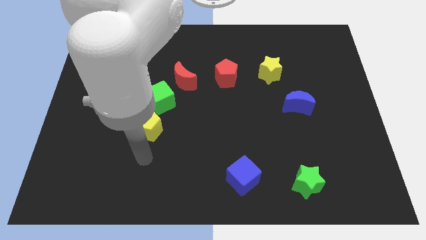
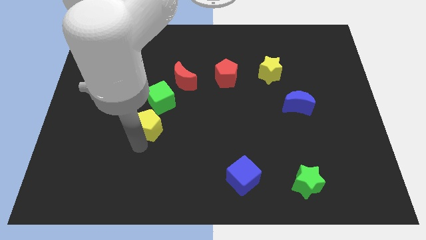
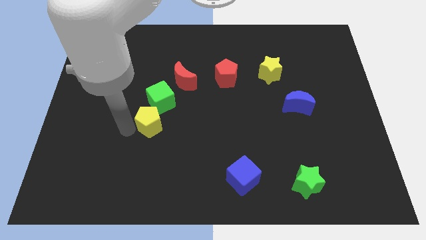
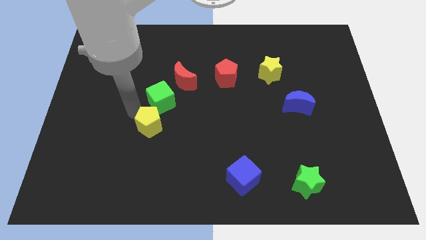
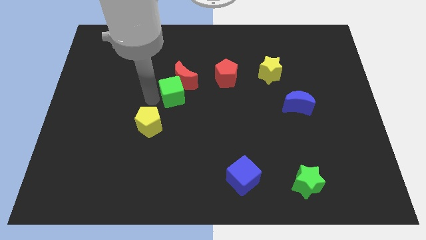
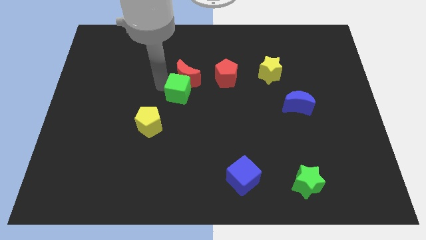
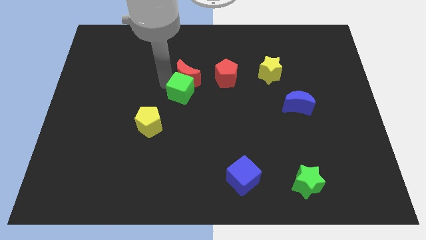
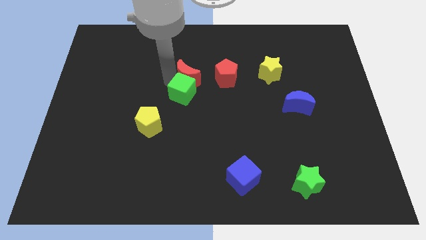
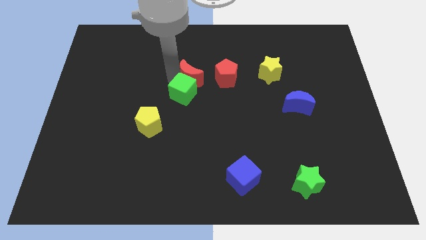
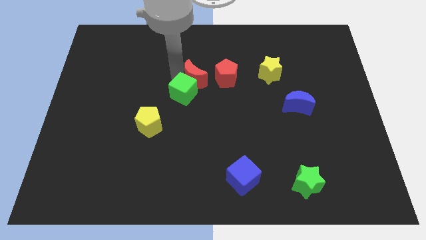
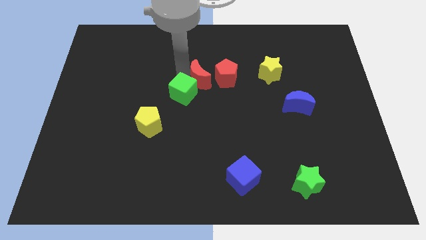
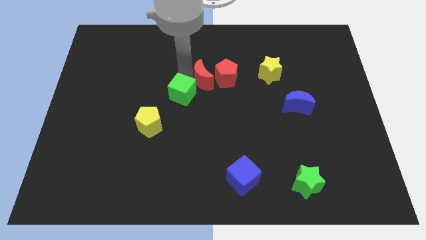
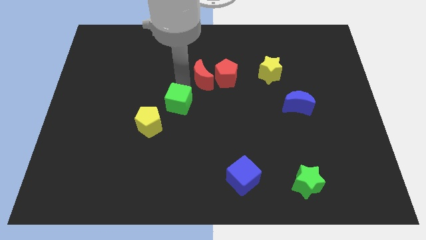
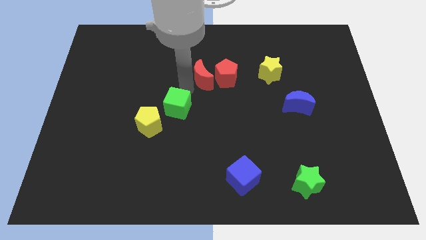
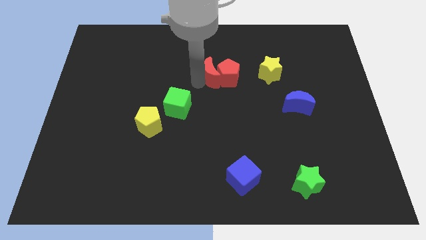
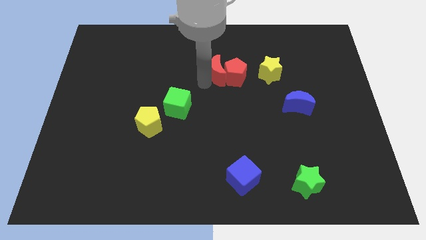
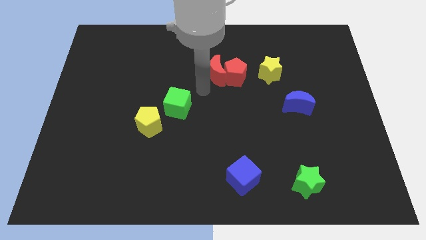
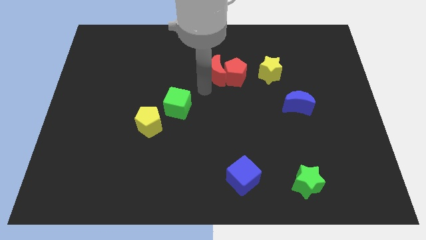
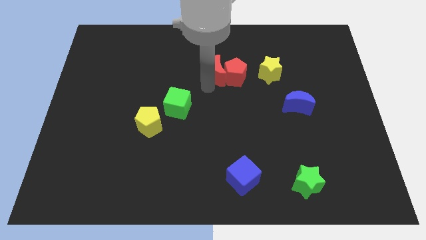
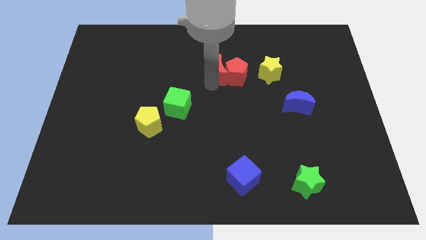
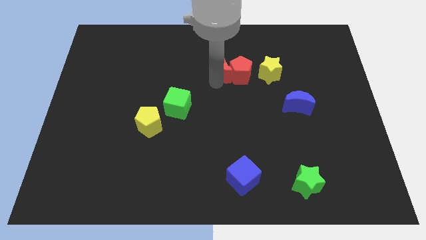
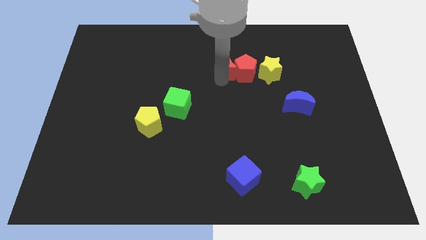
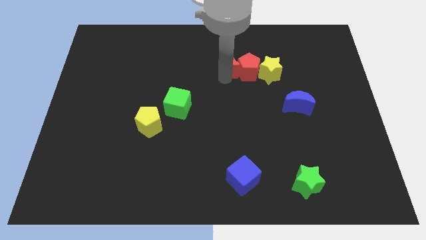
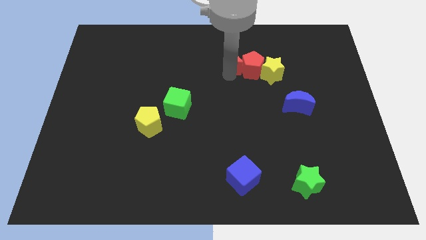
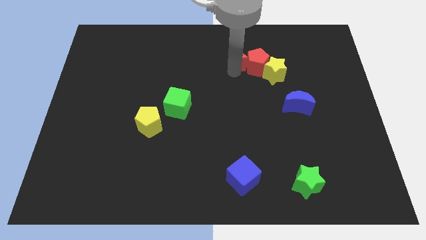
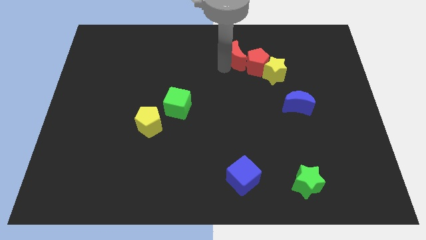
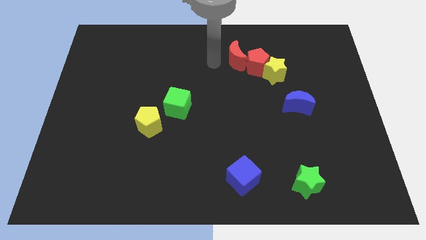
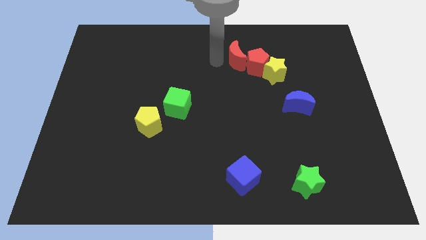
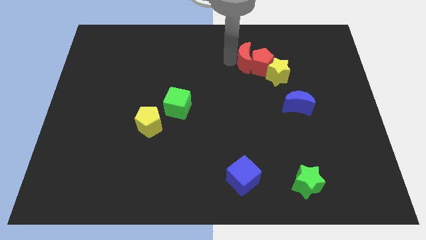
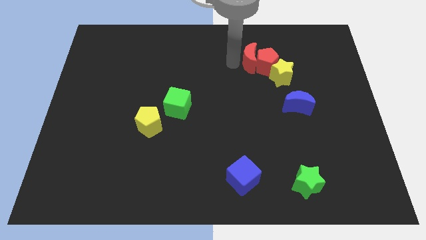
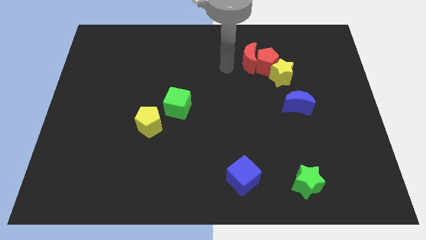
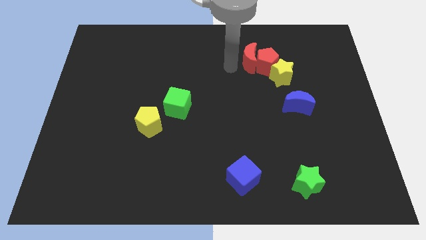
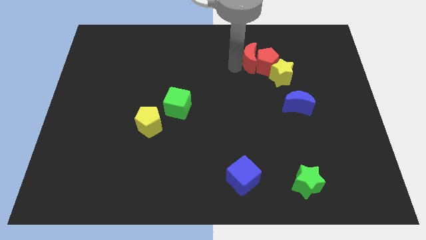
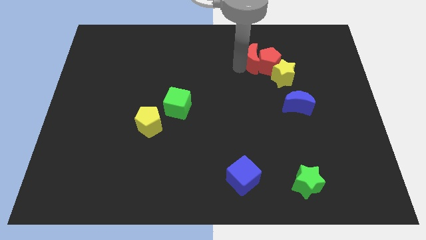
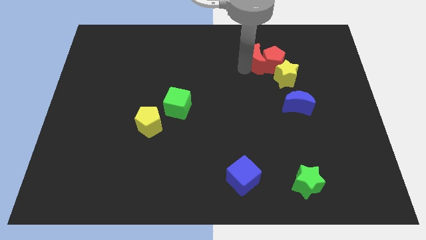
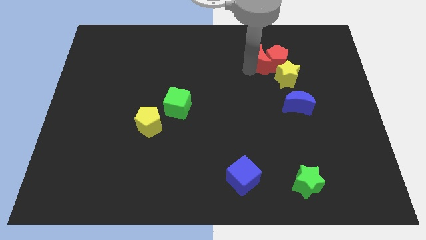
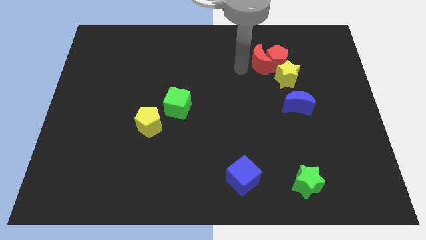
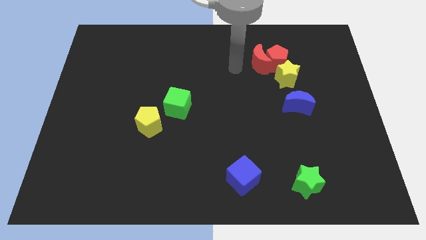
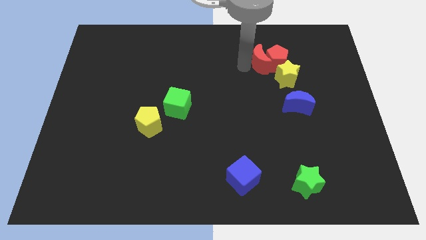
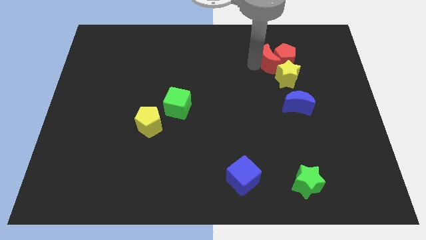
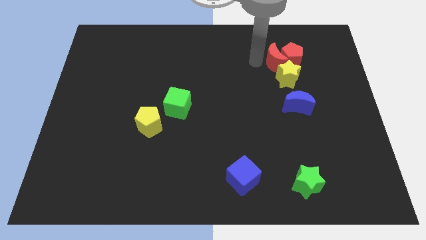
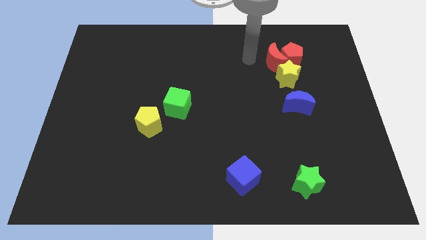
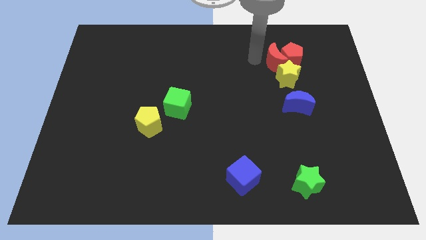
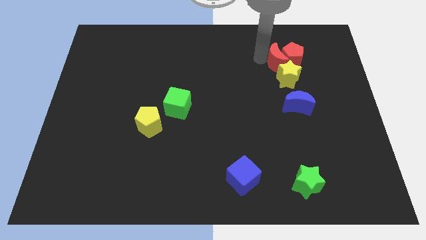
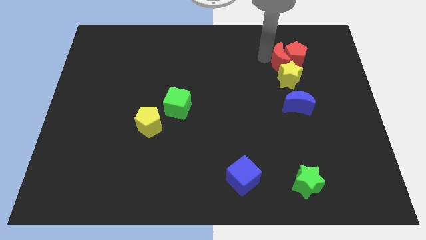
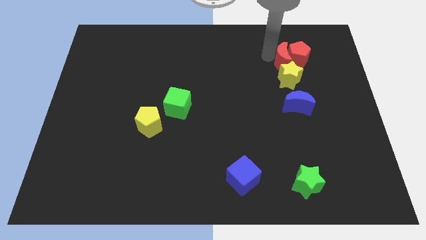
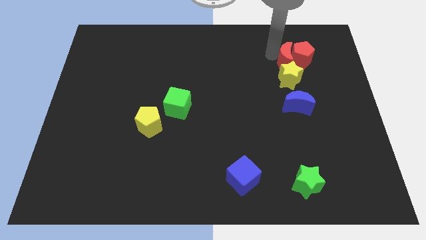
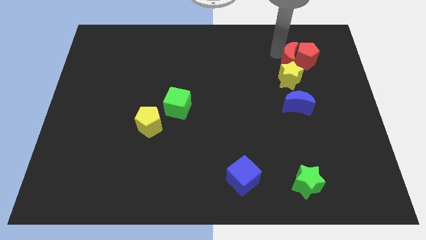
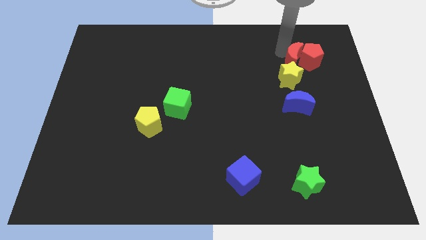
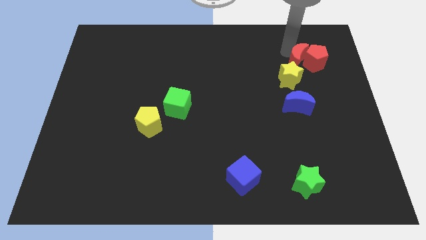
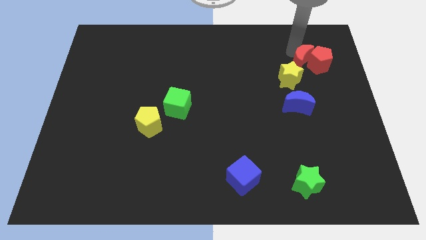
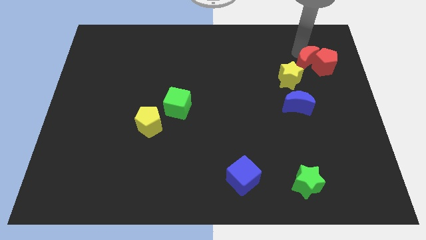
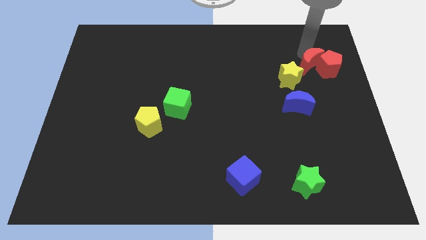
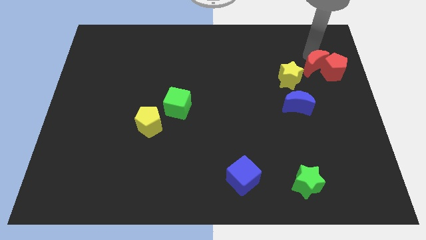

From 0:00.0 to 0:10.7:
put the red moon just right of the yellow star

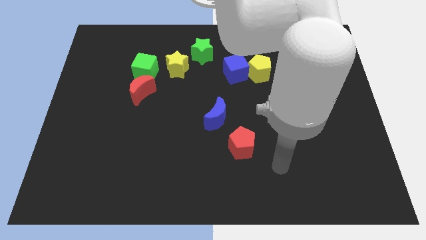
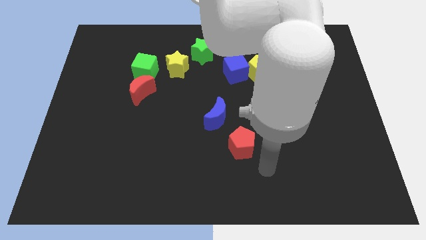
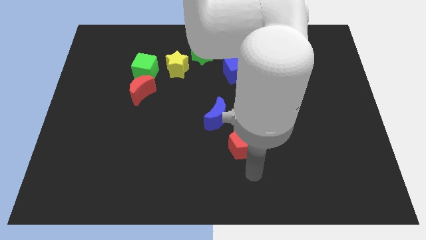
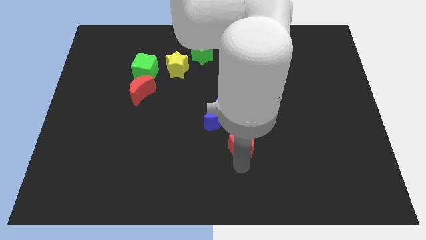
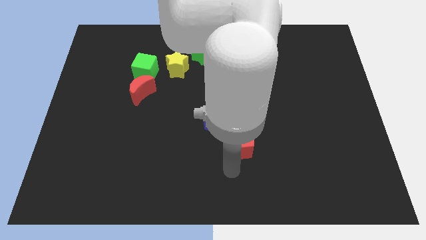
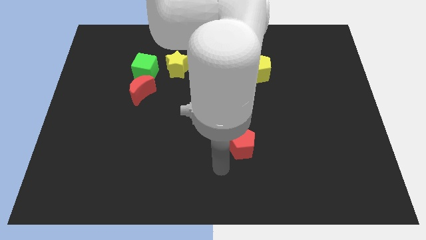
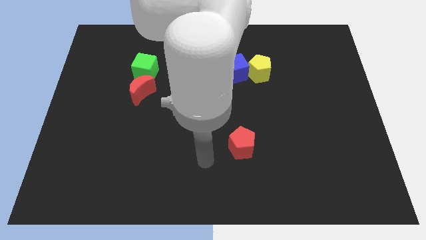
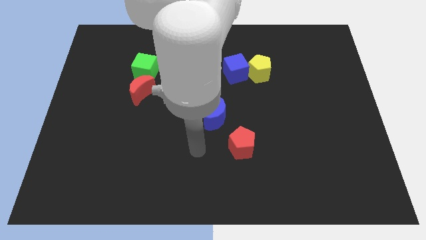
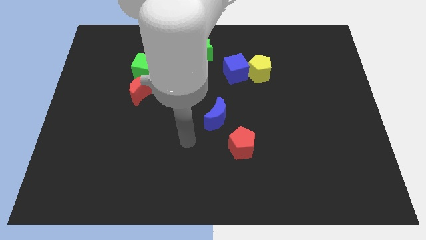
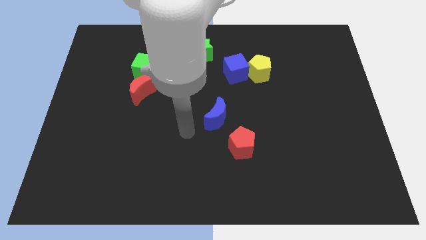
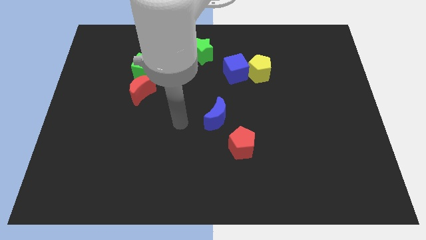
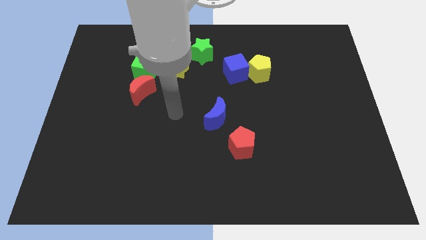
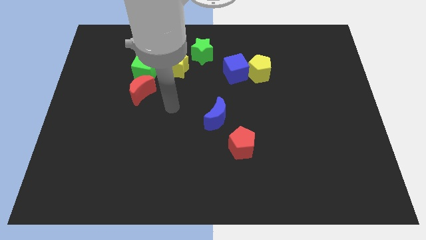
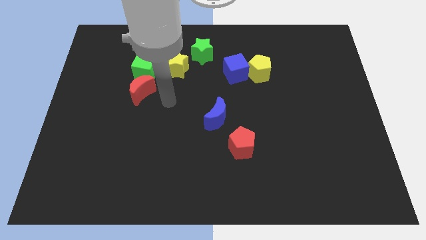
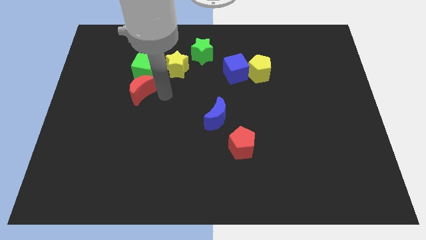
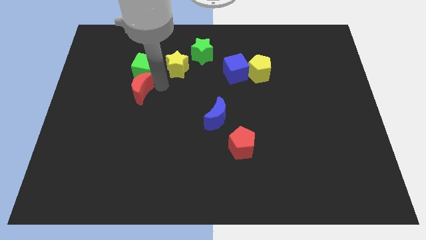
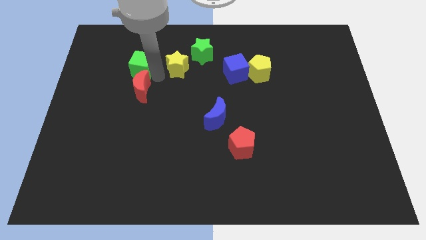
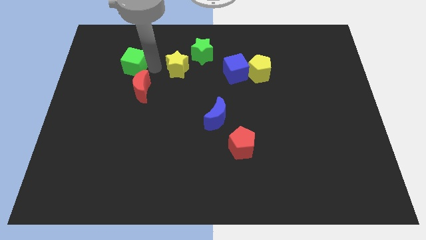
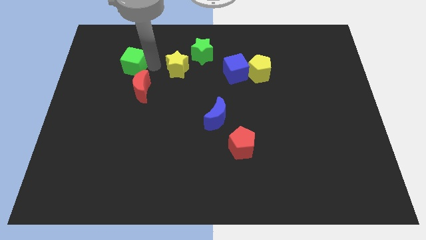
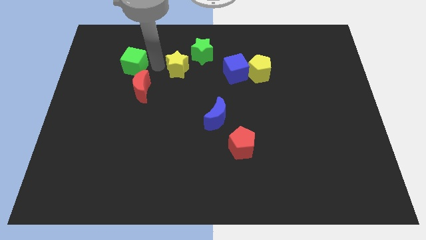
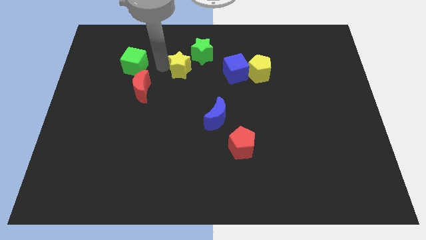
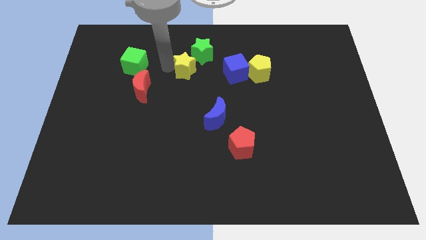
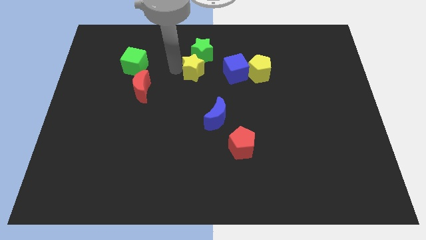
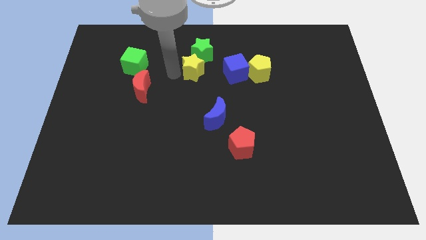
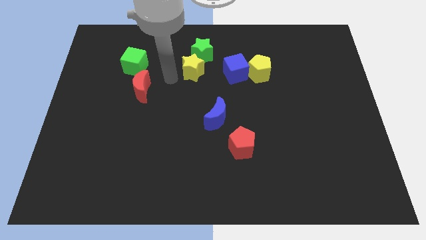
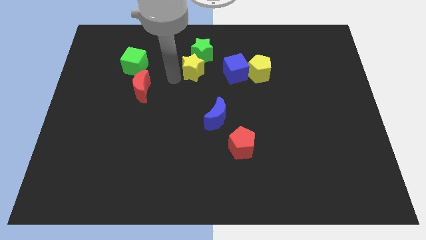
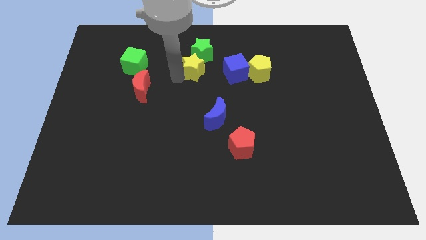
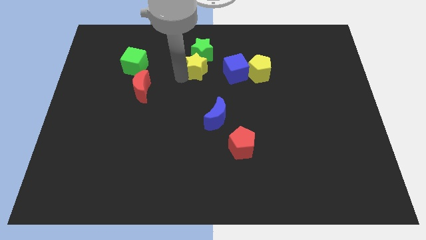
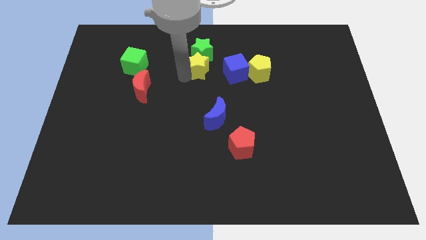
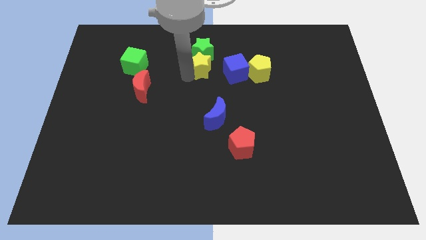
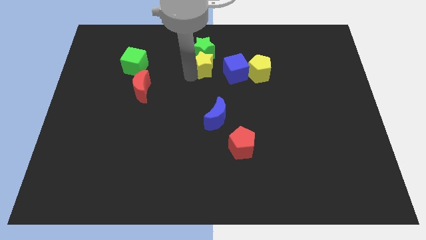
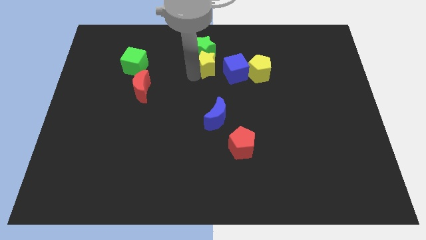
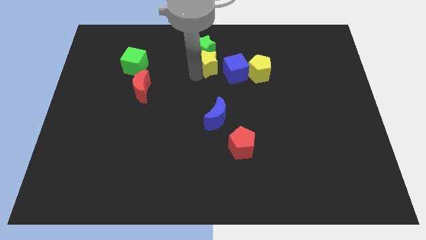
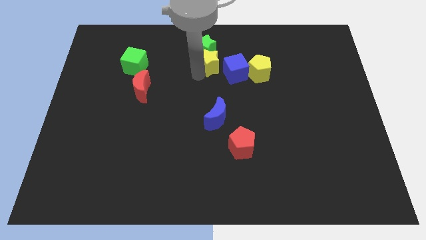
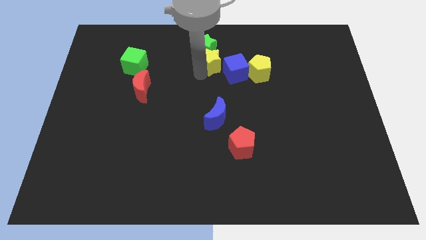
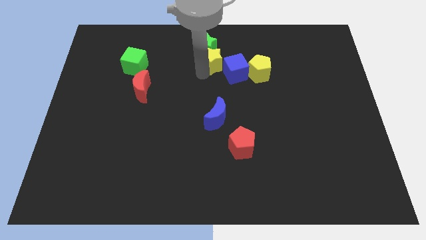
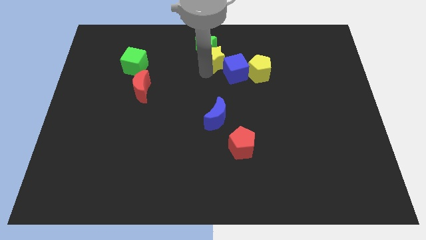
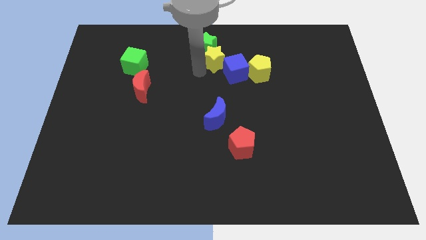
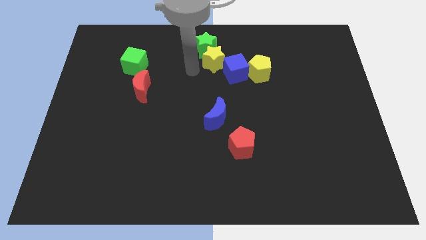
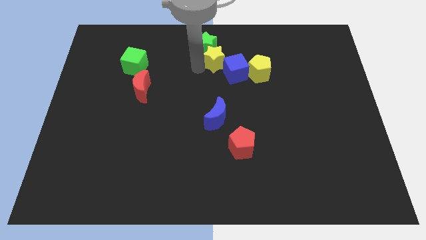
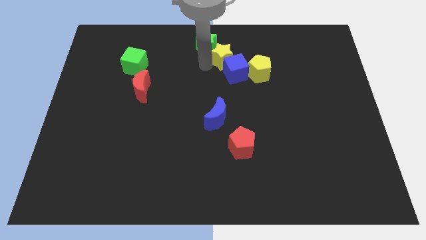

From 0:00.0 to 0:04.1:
slide the yellow star right of the green star
